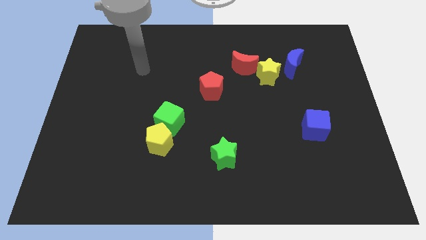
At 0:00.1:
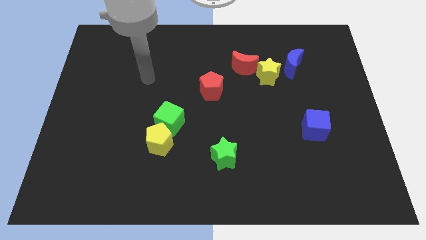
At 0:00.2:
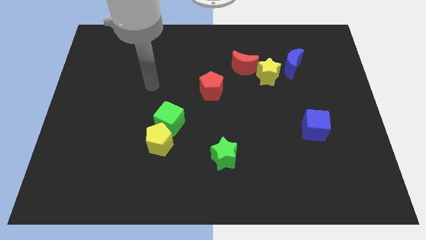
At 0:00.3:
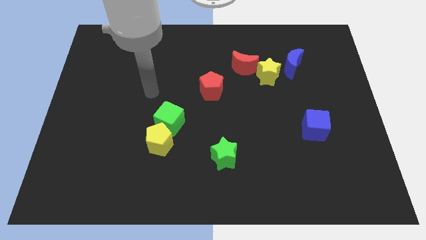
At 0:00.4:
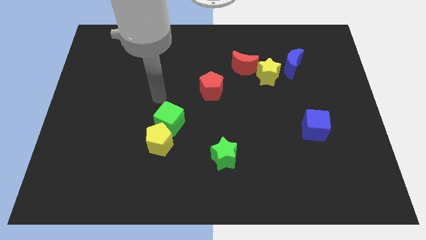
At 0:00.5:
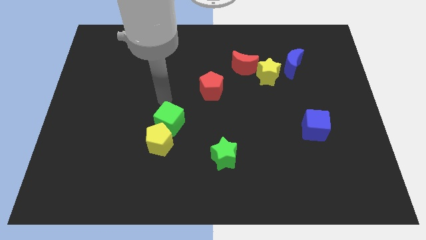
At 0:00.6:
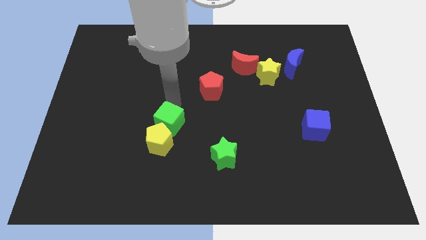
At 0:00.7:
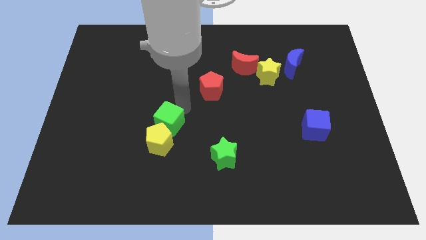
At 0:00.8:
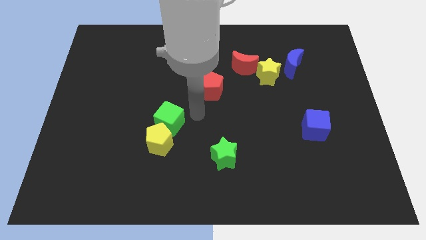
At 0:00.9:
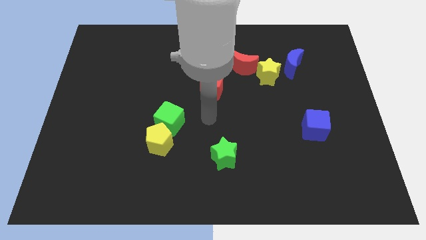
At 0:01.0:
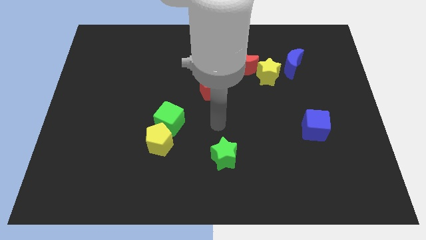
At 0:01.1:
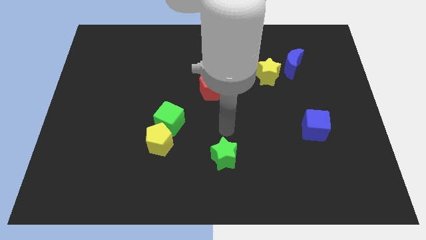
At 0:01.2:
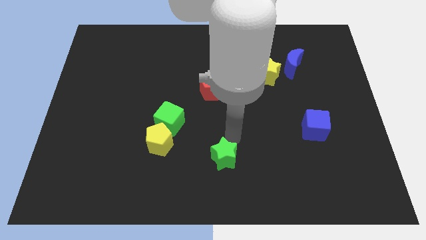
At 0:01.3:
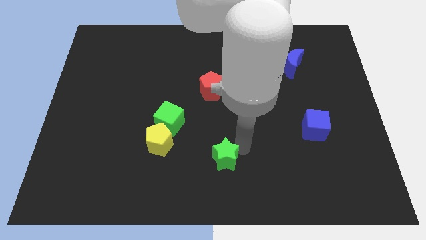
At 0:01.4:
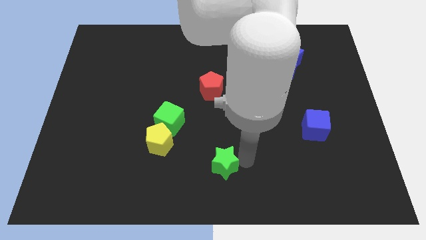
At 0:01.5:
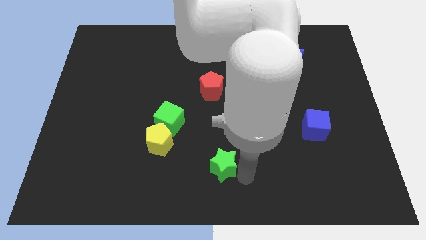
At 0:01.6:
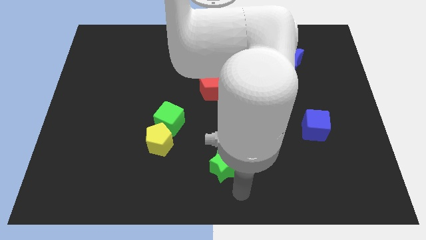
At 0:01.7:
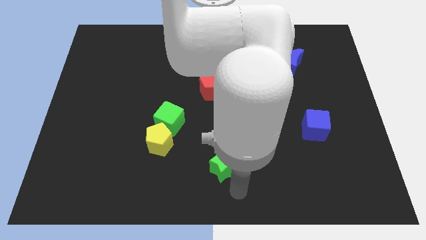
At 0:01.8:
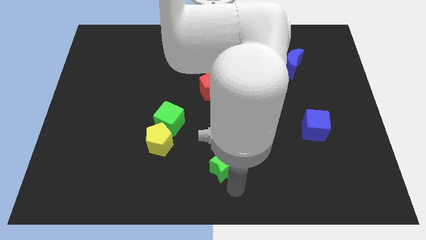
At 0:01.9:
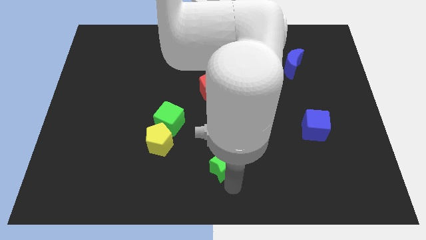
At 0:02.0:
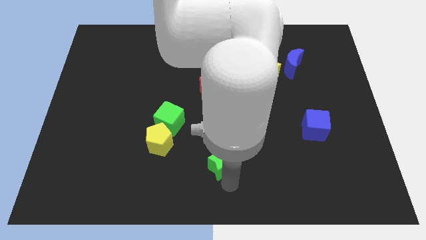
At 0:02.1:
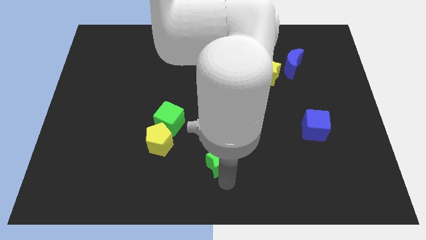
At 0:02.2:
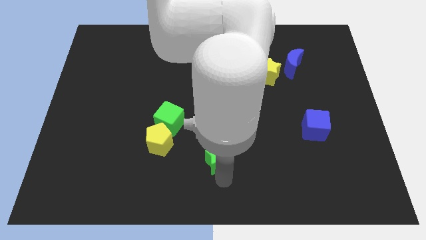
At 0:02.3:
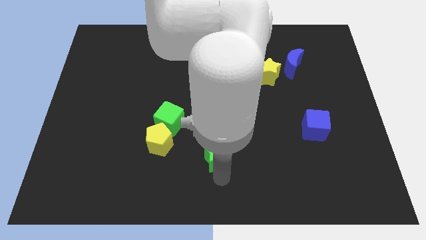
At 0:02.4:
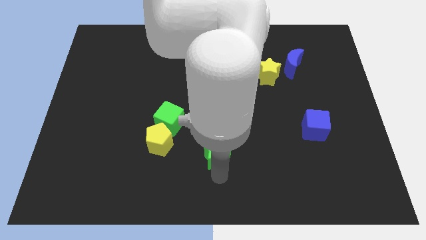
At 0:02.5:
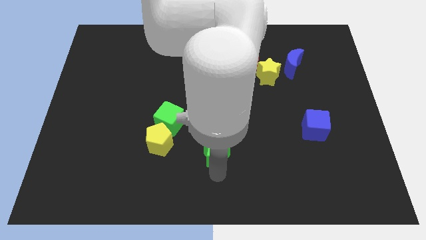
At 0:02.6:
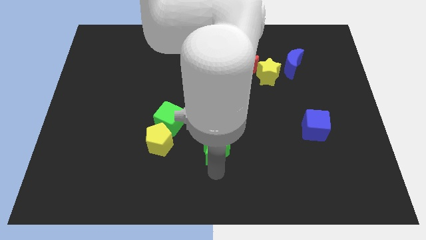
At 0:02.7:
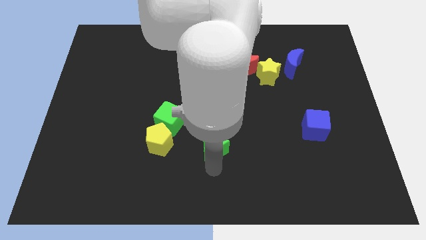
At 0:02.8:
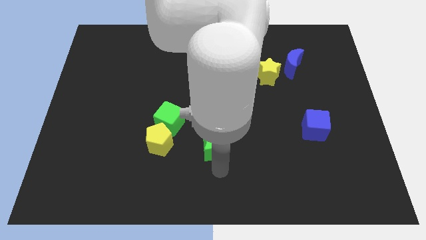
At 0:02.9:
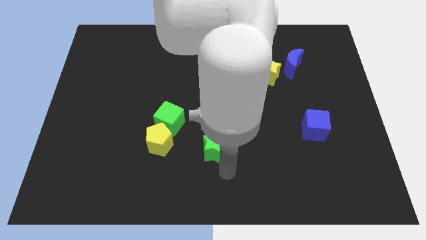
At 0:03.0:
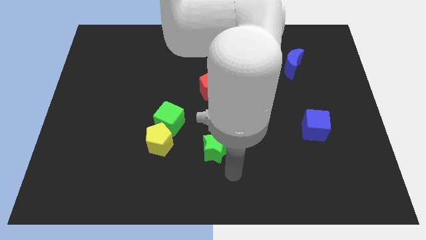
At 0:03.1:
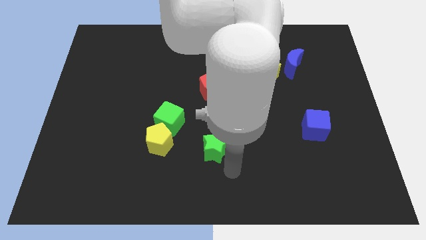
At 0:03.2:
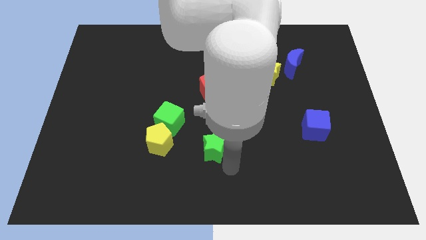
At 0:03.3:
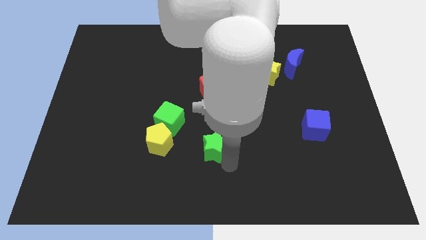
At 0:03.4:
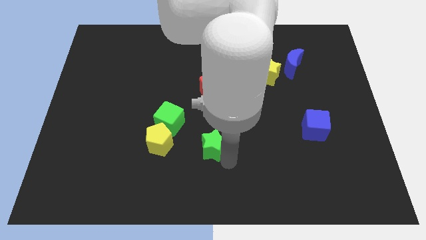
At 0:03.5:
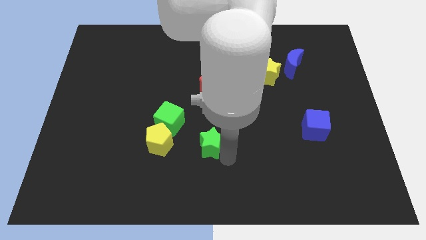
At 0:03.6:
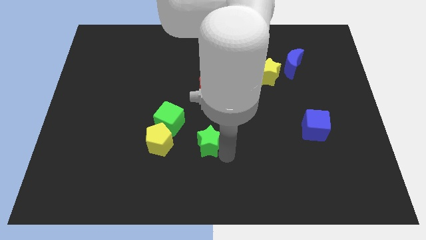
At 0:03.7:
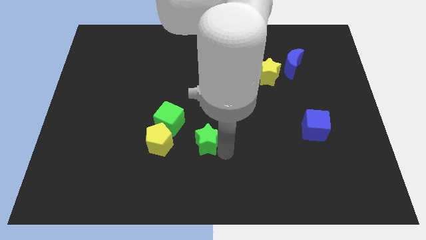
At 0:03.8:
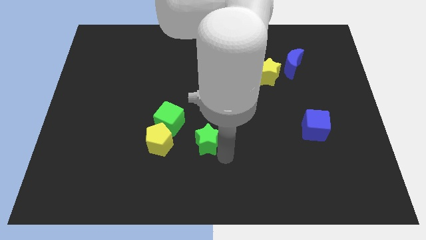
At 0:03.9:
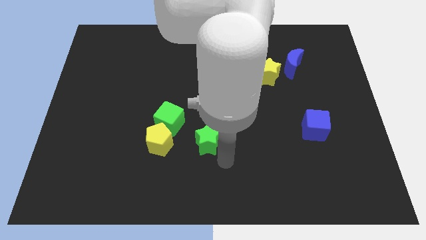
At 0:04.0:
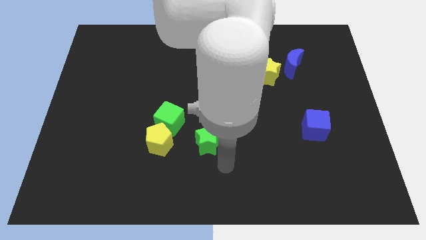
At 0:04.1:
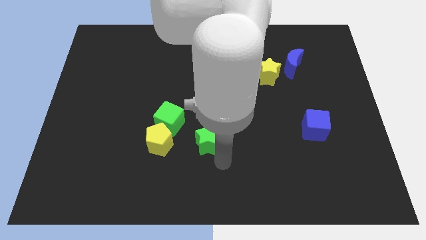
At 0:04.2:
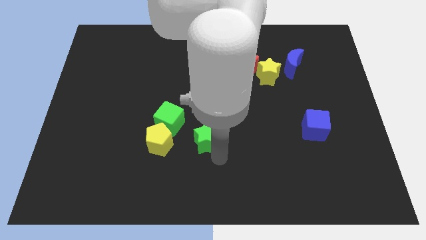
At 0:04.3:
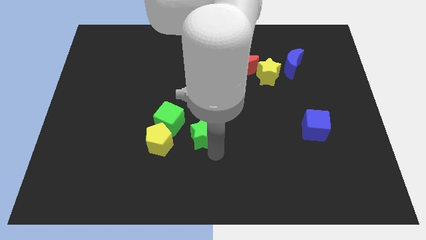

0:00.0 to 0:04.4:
slightly slide the green star upwards and left diagonally

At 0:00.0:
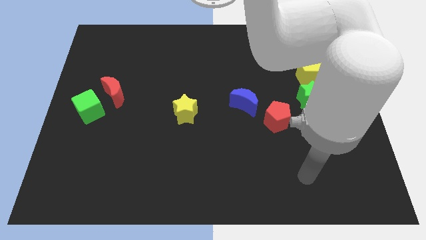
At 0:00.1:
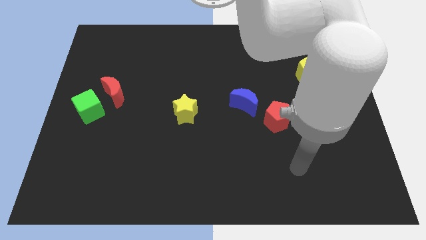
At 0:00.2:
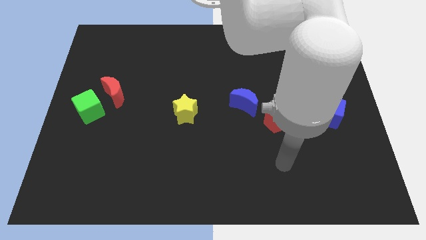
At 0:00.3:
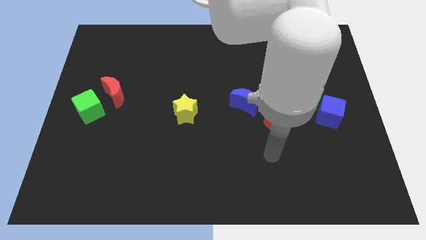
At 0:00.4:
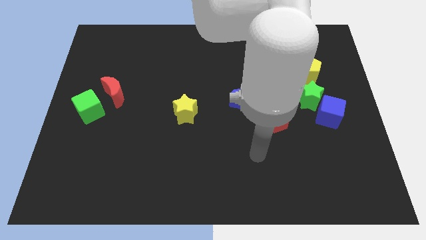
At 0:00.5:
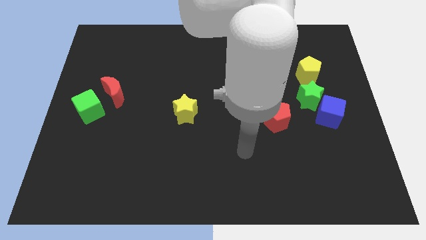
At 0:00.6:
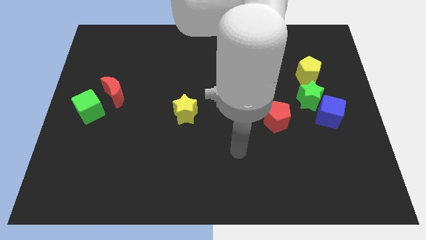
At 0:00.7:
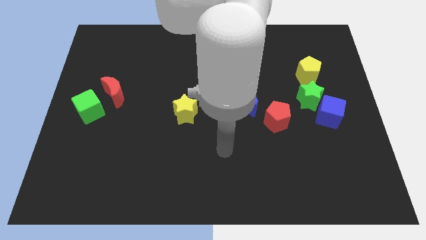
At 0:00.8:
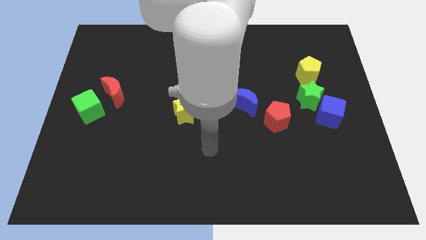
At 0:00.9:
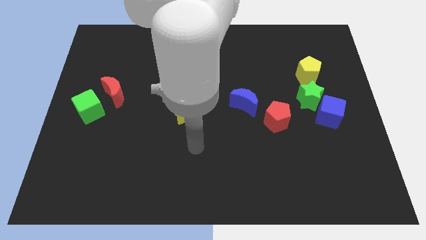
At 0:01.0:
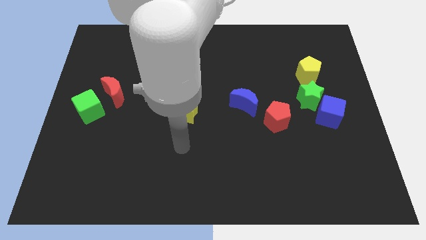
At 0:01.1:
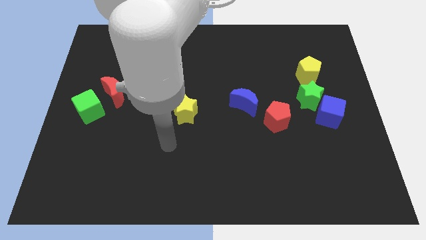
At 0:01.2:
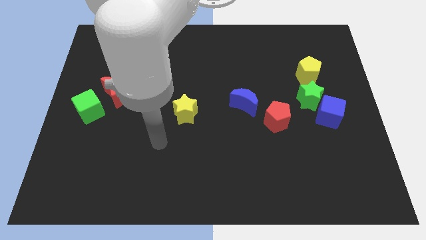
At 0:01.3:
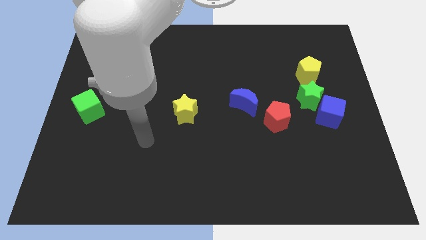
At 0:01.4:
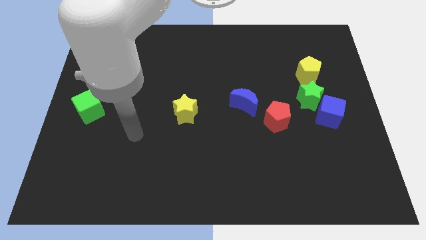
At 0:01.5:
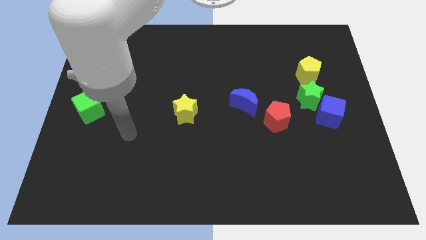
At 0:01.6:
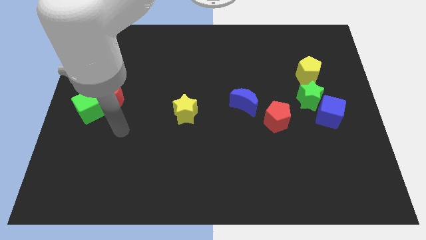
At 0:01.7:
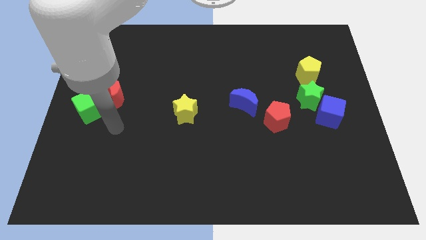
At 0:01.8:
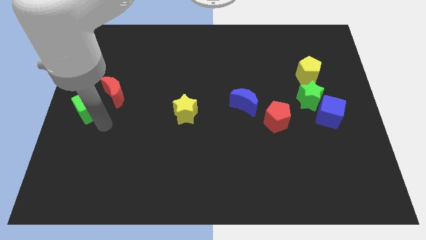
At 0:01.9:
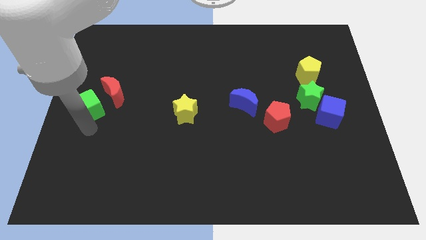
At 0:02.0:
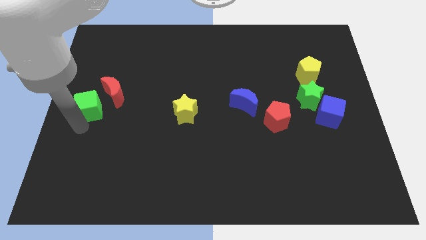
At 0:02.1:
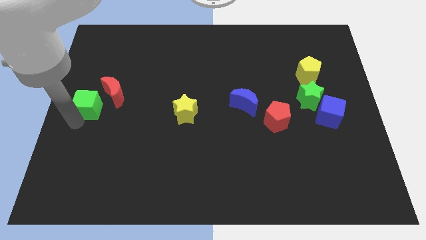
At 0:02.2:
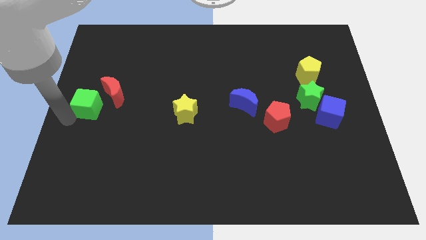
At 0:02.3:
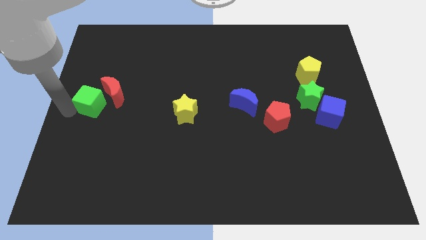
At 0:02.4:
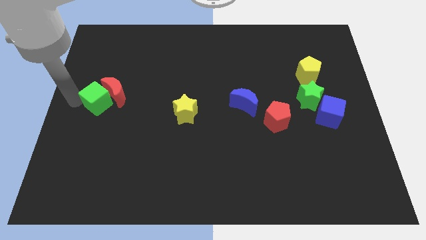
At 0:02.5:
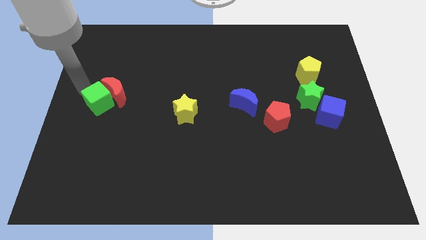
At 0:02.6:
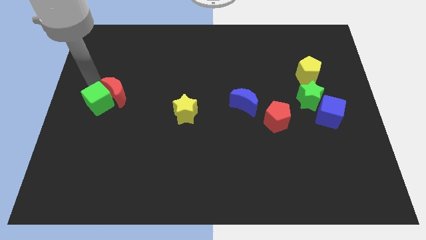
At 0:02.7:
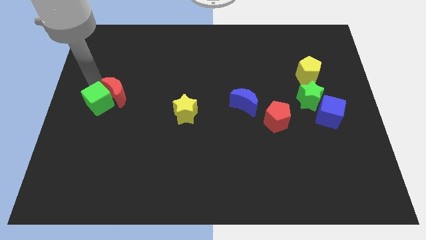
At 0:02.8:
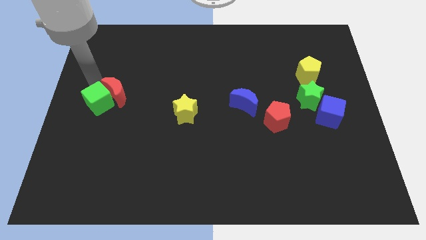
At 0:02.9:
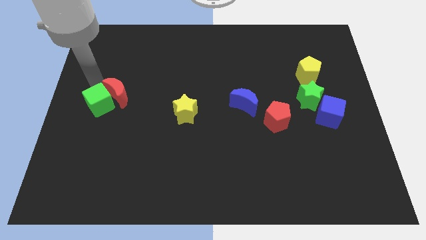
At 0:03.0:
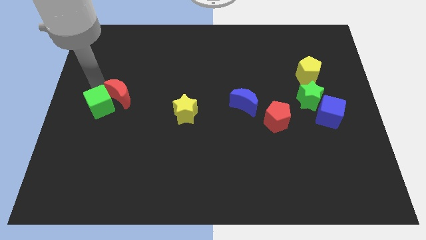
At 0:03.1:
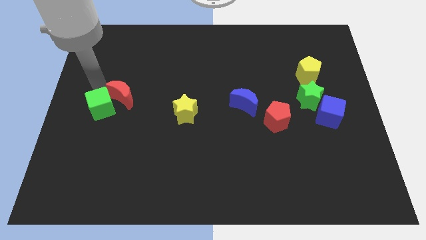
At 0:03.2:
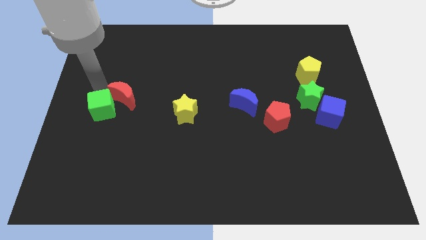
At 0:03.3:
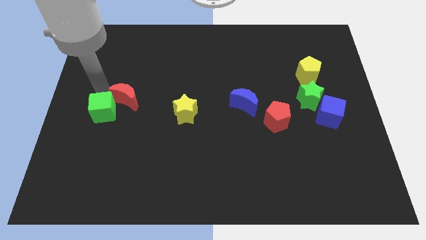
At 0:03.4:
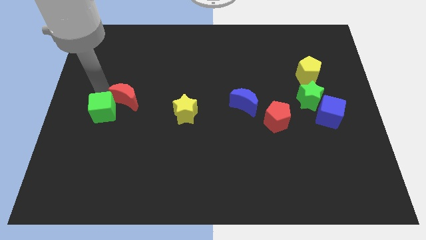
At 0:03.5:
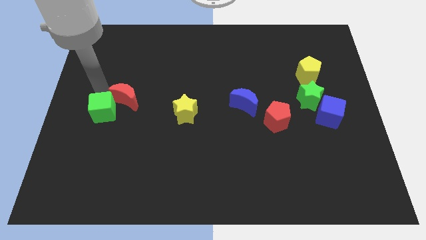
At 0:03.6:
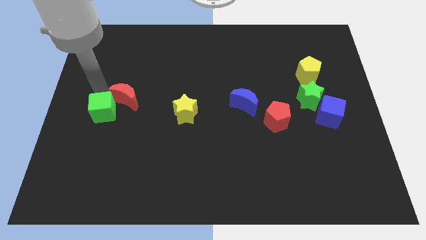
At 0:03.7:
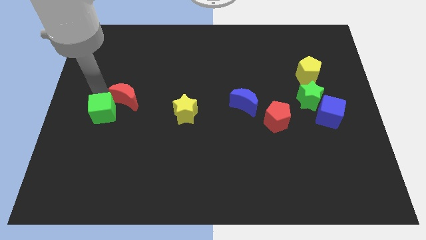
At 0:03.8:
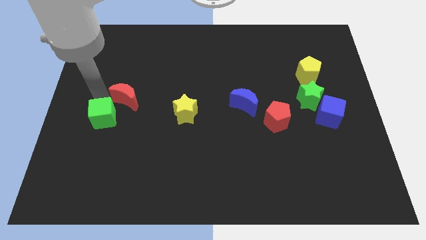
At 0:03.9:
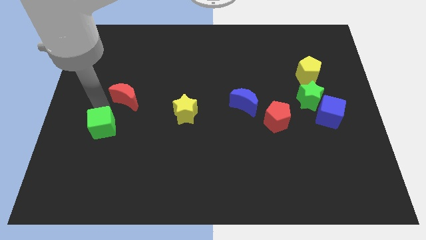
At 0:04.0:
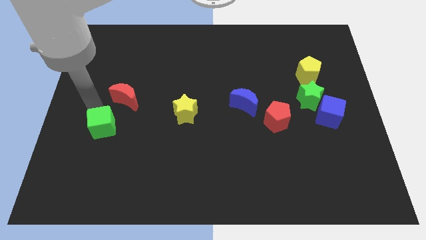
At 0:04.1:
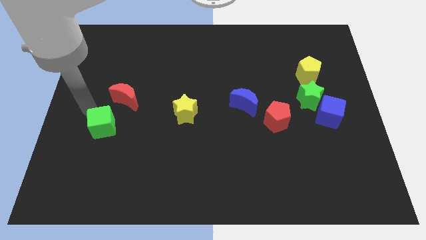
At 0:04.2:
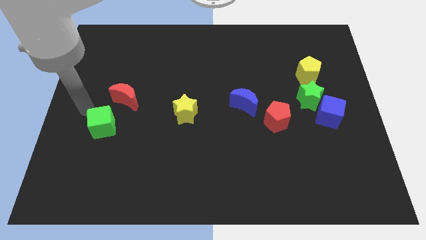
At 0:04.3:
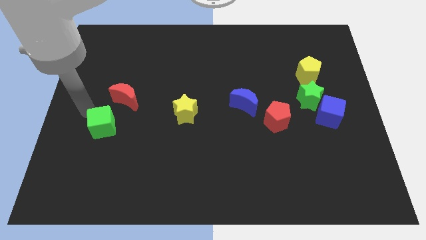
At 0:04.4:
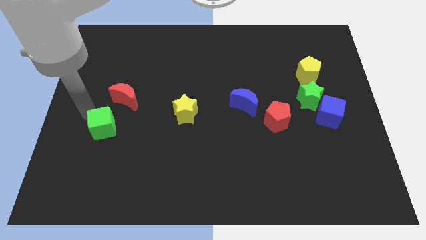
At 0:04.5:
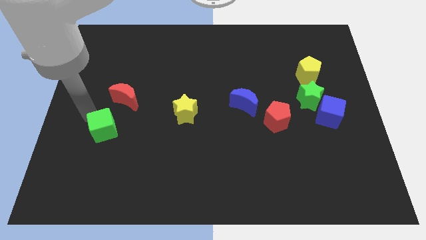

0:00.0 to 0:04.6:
slightly move the green cube diagonally downwards and to the right
